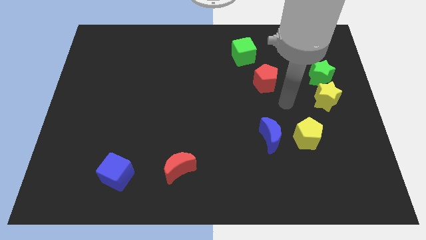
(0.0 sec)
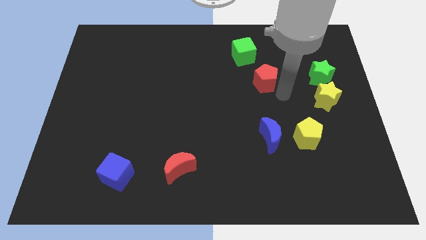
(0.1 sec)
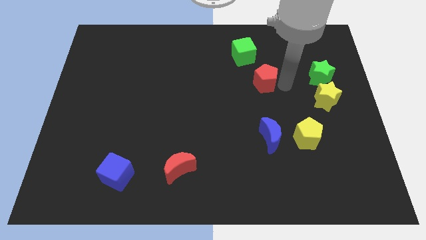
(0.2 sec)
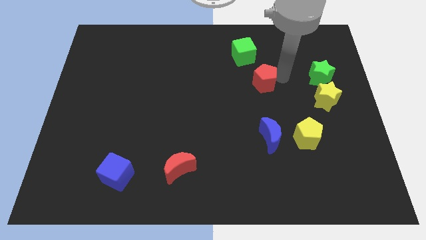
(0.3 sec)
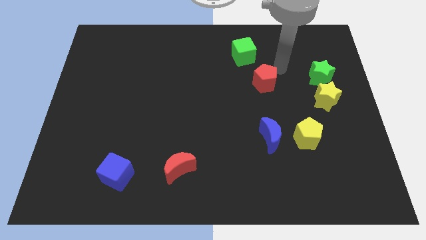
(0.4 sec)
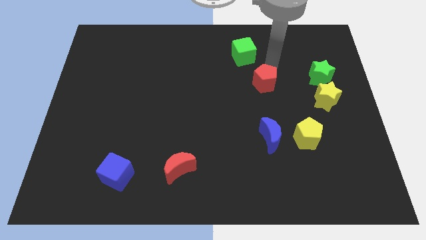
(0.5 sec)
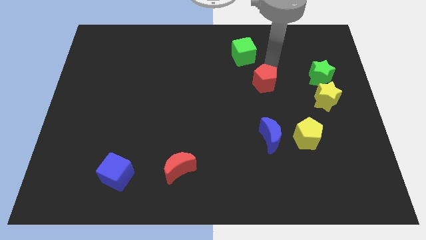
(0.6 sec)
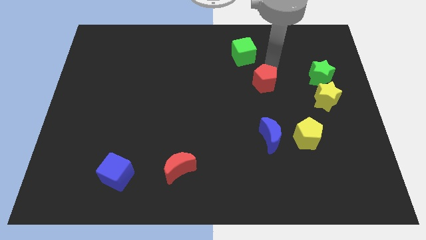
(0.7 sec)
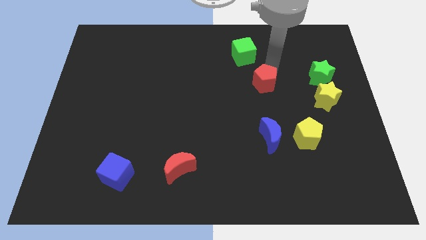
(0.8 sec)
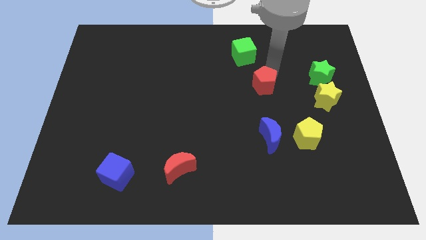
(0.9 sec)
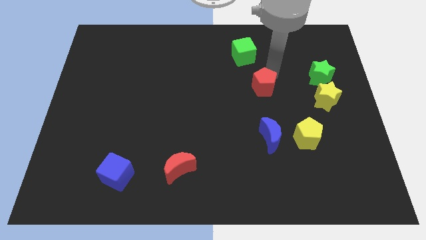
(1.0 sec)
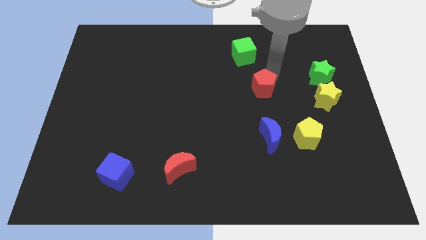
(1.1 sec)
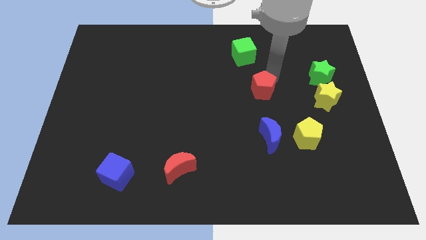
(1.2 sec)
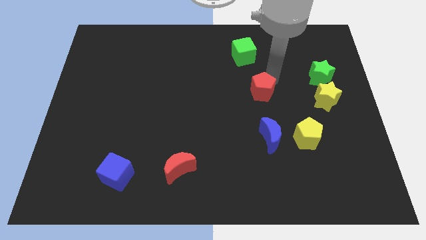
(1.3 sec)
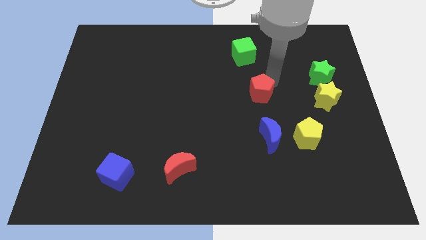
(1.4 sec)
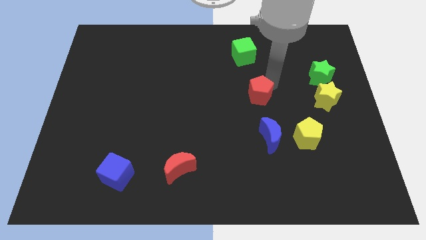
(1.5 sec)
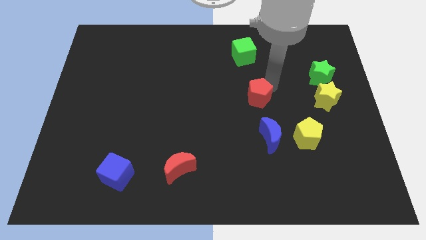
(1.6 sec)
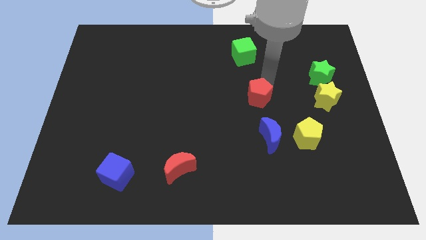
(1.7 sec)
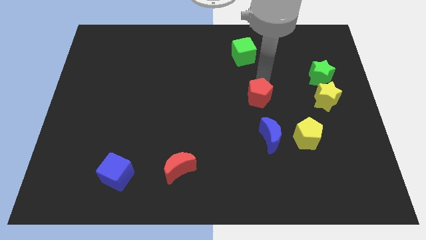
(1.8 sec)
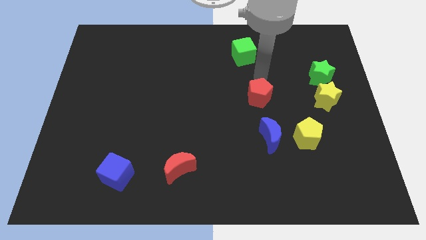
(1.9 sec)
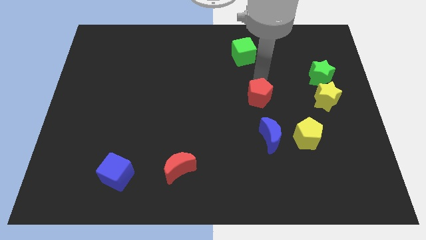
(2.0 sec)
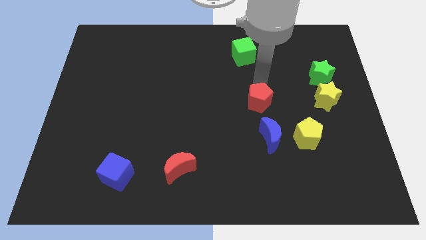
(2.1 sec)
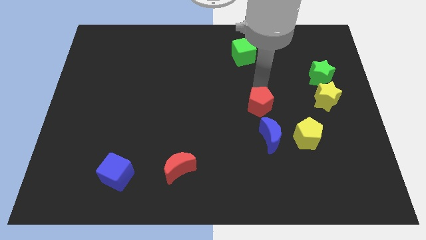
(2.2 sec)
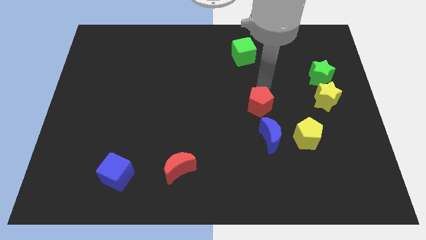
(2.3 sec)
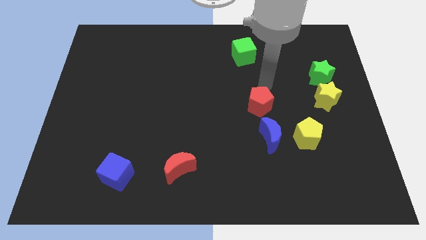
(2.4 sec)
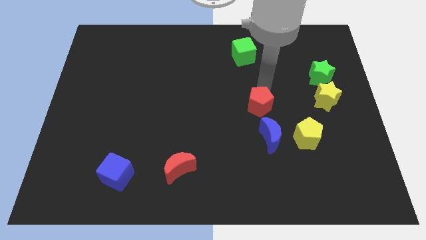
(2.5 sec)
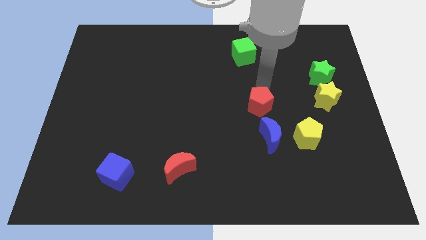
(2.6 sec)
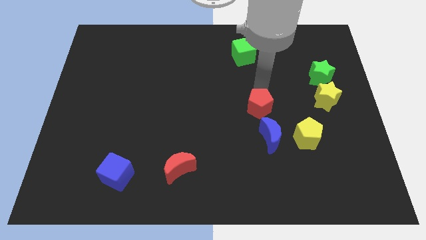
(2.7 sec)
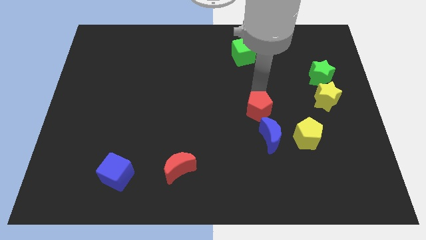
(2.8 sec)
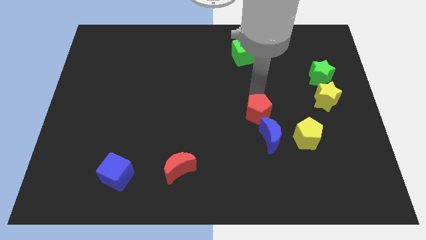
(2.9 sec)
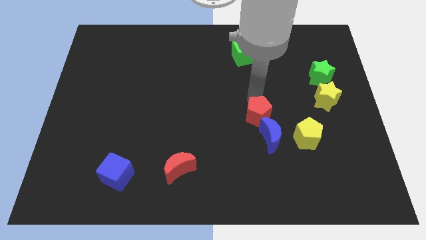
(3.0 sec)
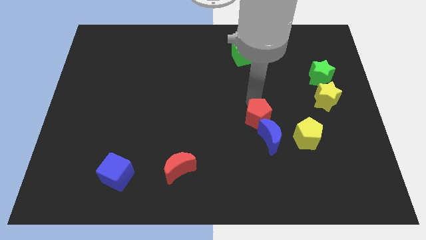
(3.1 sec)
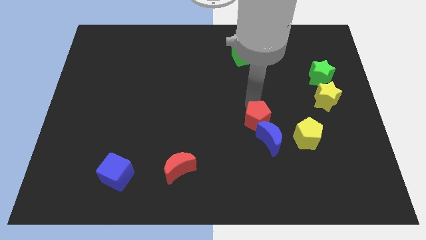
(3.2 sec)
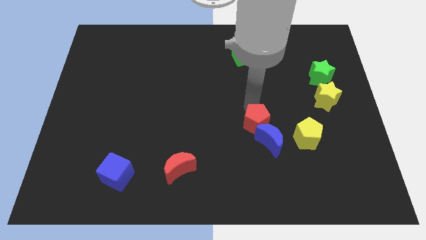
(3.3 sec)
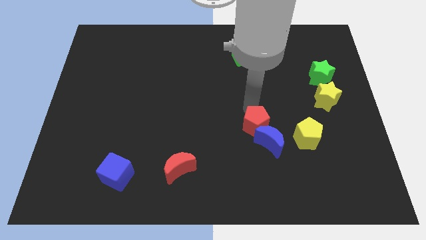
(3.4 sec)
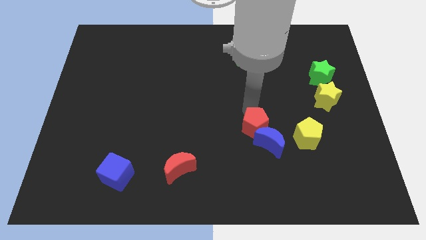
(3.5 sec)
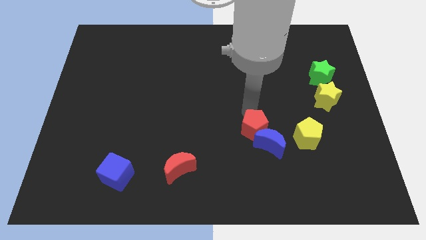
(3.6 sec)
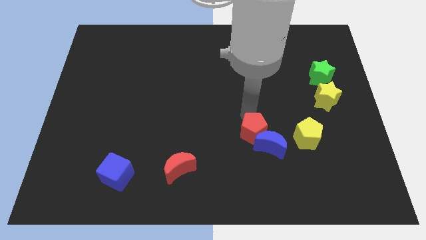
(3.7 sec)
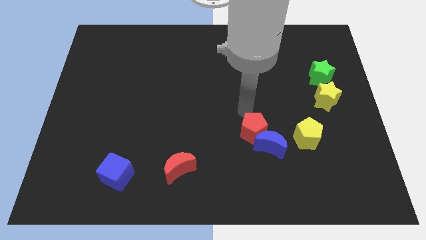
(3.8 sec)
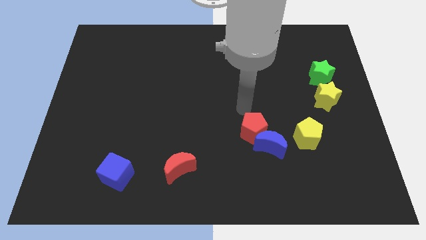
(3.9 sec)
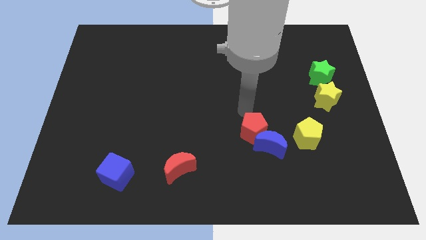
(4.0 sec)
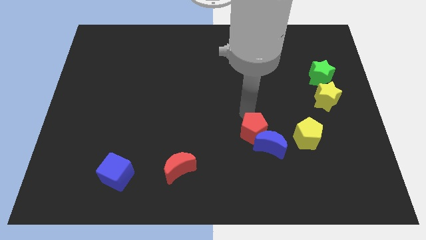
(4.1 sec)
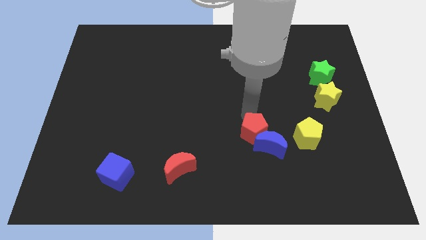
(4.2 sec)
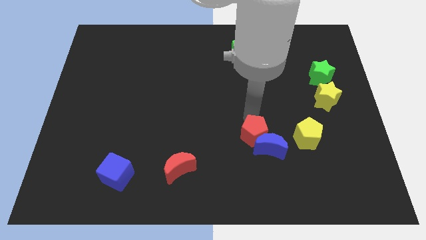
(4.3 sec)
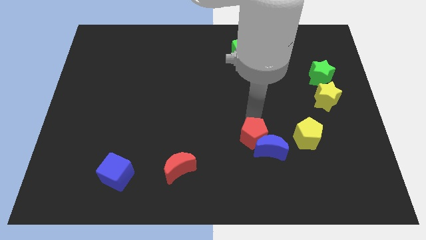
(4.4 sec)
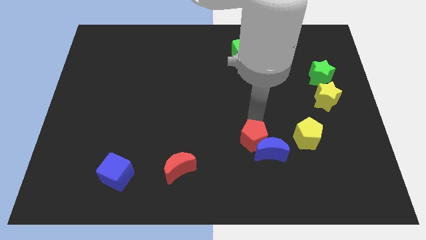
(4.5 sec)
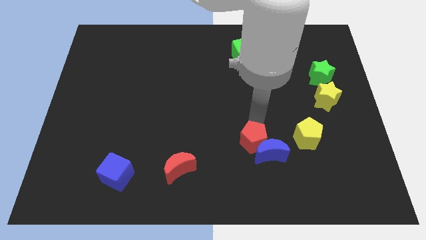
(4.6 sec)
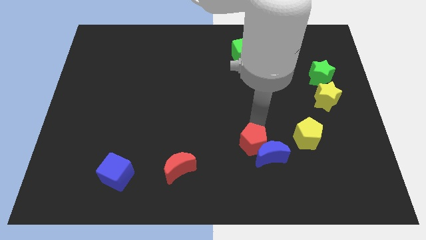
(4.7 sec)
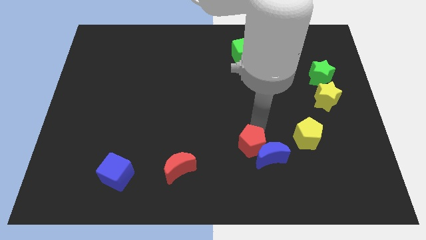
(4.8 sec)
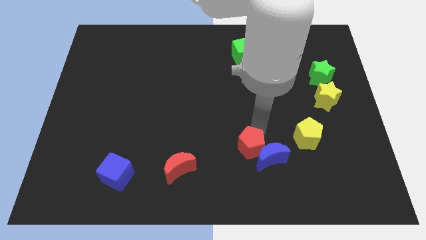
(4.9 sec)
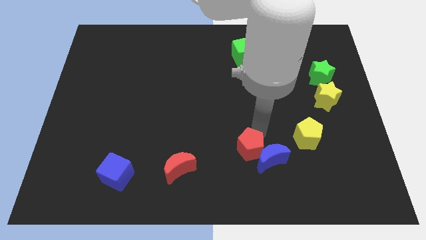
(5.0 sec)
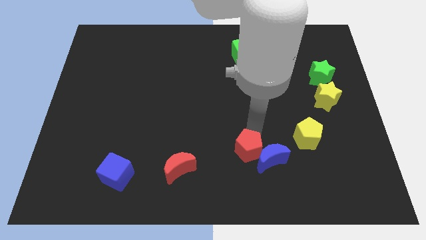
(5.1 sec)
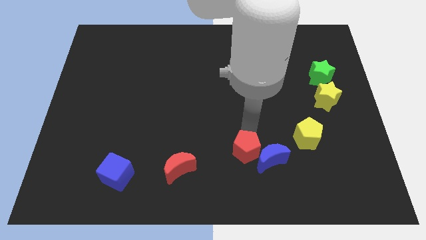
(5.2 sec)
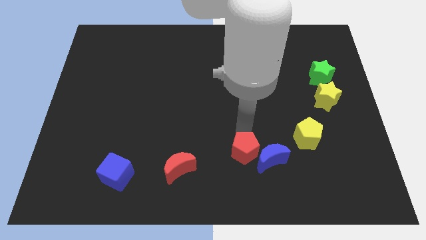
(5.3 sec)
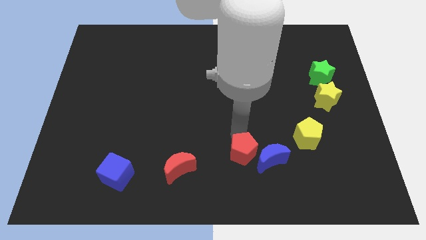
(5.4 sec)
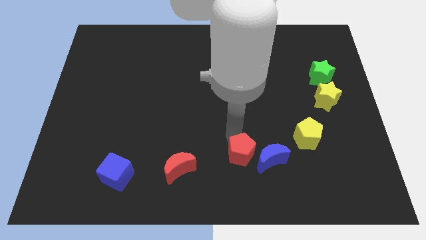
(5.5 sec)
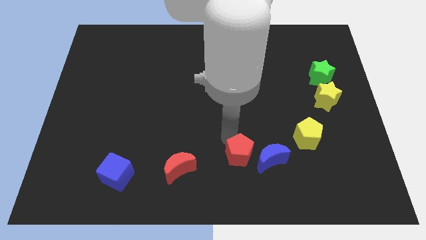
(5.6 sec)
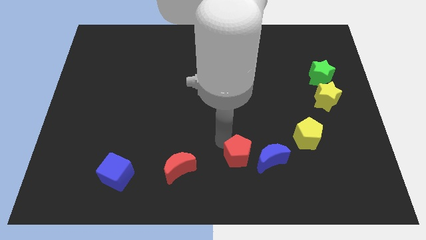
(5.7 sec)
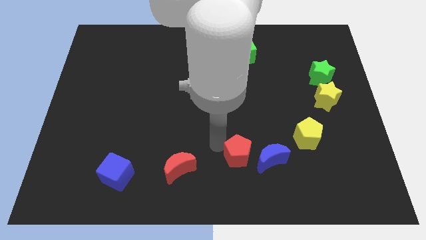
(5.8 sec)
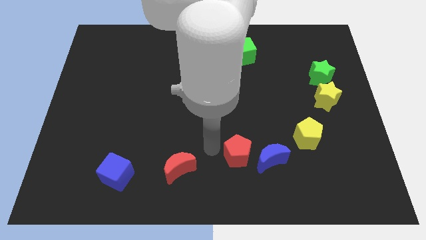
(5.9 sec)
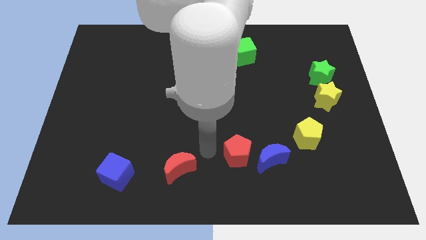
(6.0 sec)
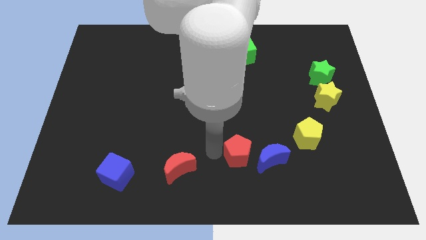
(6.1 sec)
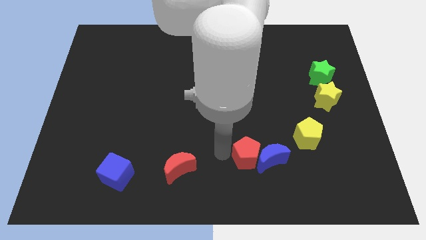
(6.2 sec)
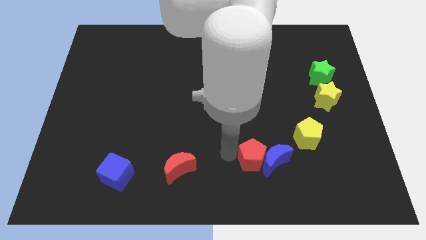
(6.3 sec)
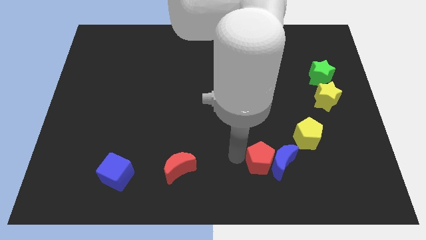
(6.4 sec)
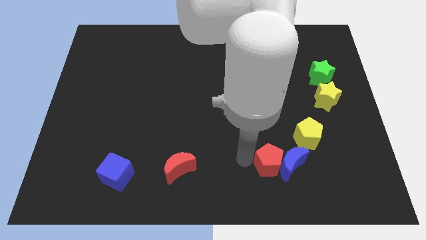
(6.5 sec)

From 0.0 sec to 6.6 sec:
slide the red pentagon to the bottom left of the yellow pentagon

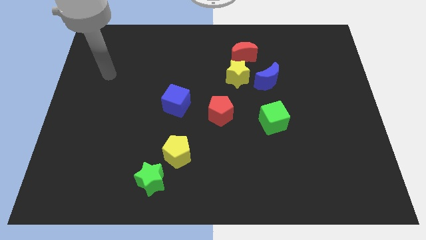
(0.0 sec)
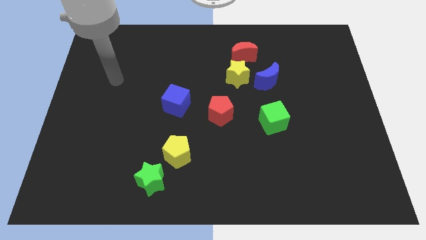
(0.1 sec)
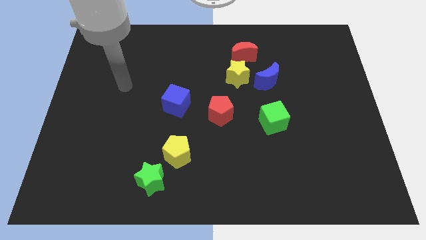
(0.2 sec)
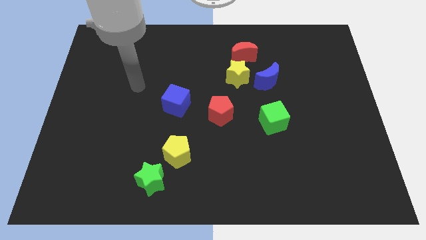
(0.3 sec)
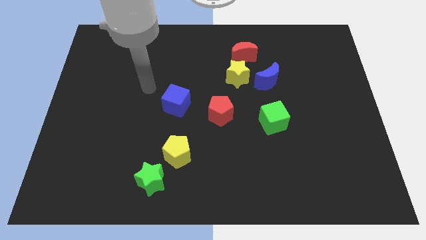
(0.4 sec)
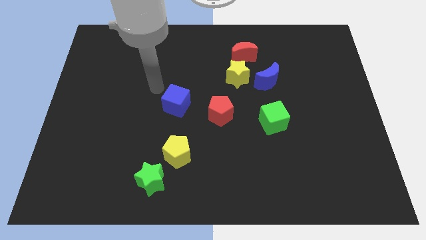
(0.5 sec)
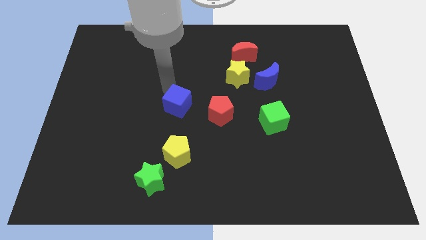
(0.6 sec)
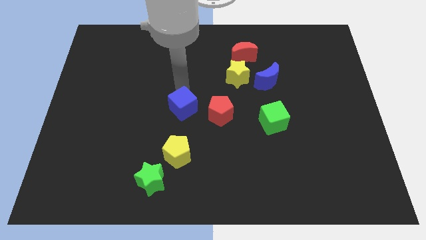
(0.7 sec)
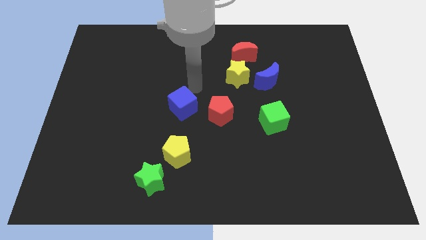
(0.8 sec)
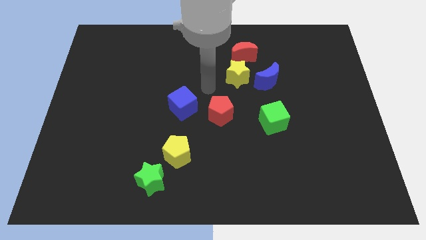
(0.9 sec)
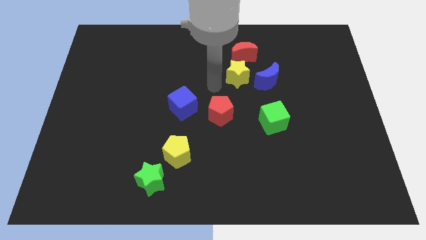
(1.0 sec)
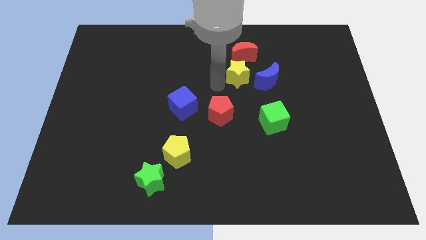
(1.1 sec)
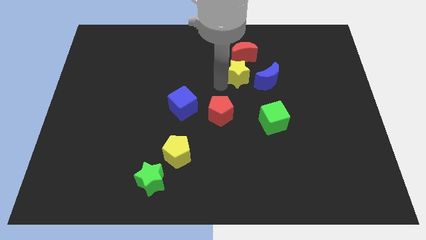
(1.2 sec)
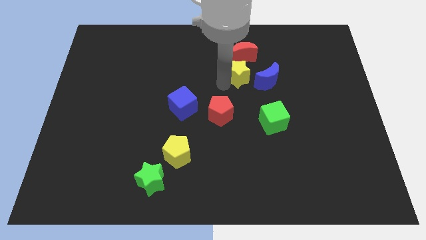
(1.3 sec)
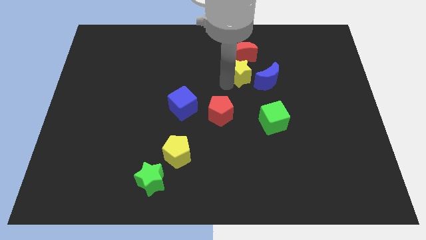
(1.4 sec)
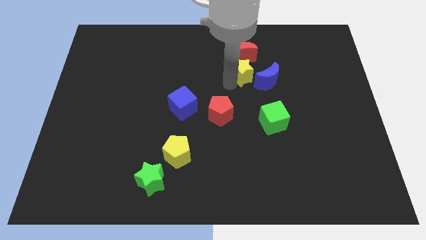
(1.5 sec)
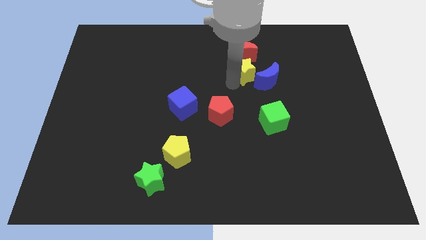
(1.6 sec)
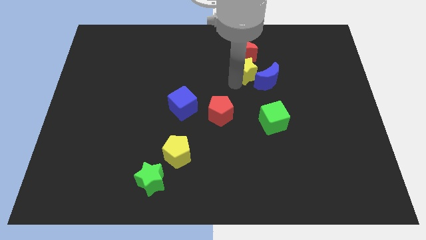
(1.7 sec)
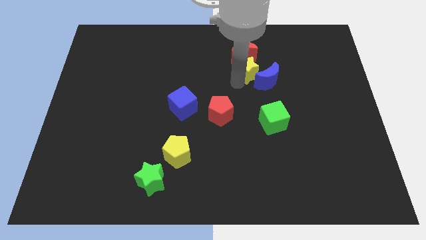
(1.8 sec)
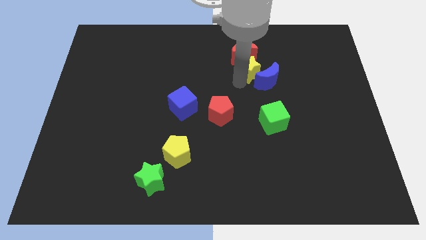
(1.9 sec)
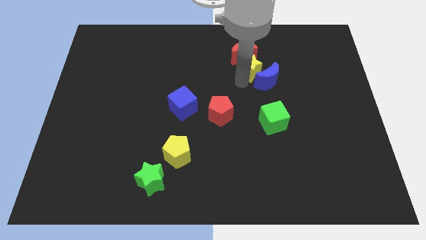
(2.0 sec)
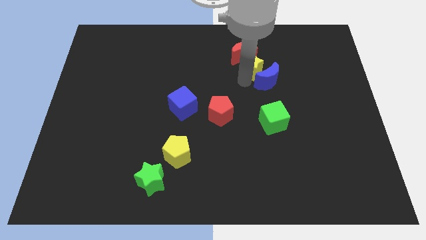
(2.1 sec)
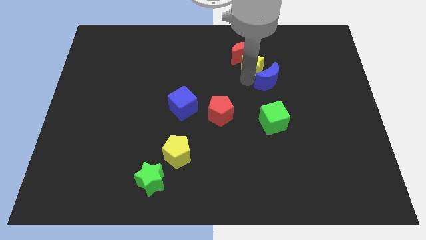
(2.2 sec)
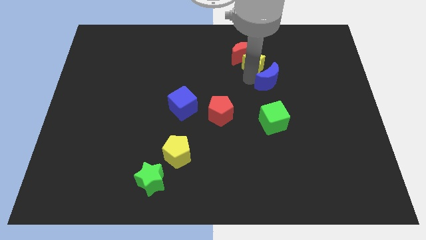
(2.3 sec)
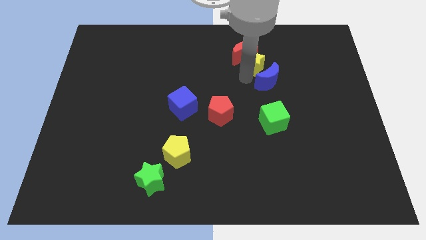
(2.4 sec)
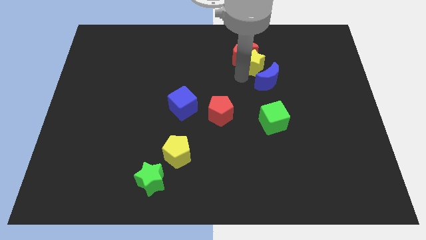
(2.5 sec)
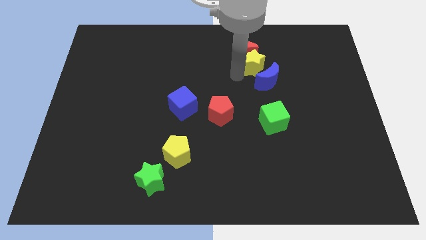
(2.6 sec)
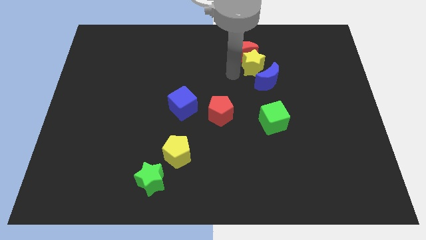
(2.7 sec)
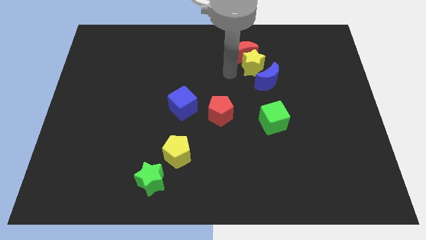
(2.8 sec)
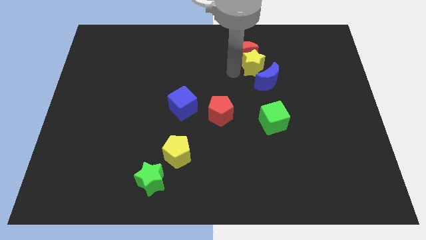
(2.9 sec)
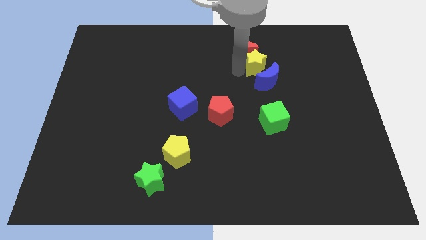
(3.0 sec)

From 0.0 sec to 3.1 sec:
put the yellow star to the right of the red moon
